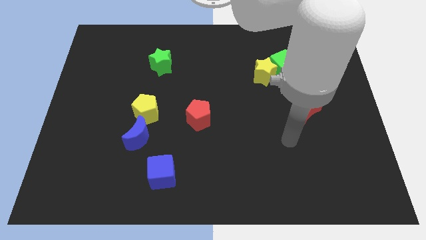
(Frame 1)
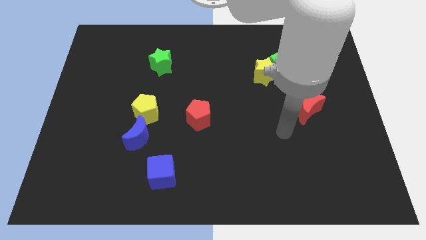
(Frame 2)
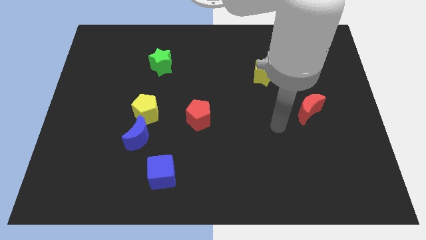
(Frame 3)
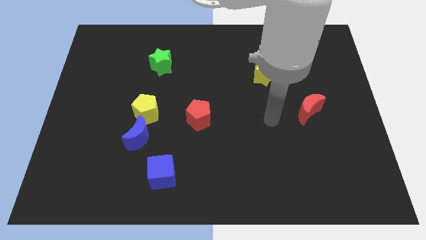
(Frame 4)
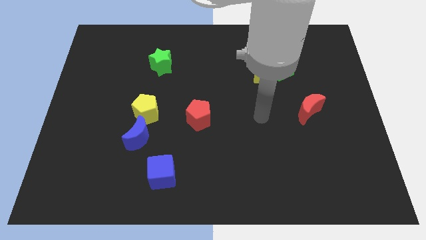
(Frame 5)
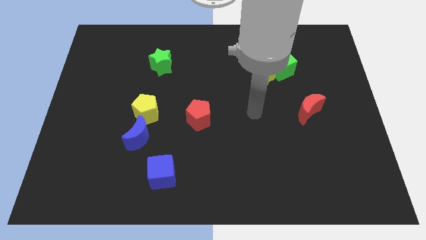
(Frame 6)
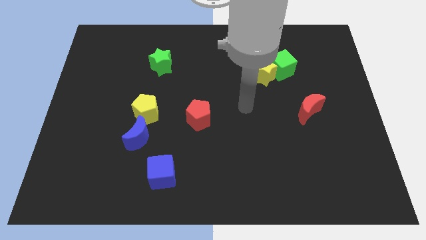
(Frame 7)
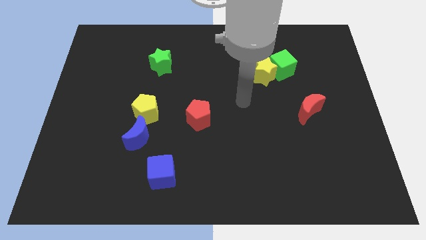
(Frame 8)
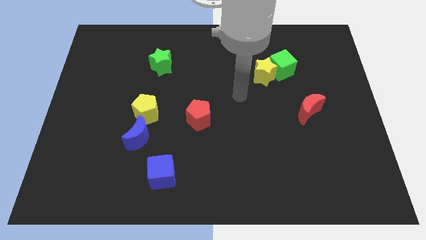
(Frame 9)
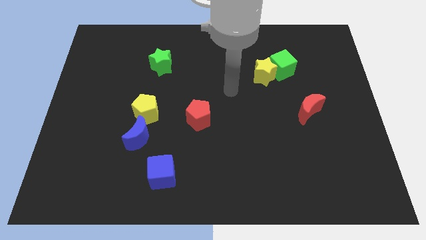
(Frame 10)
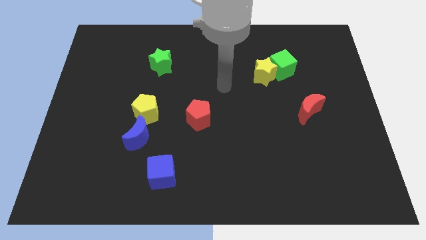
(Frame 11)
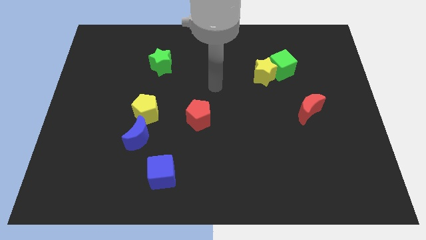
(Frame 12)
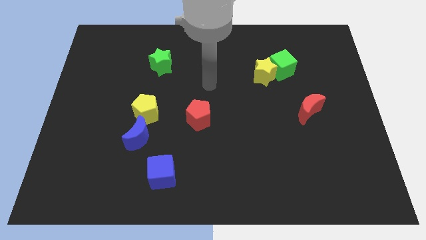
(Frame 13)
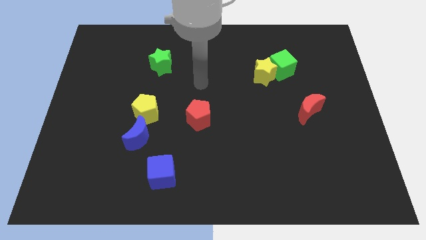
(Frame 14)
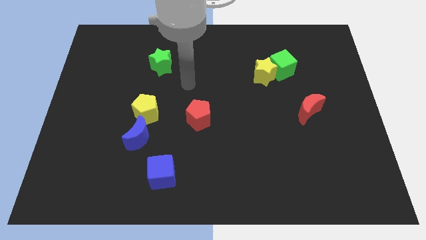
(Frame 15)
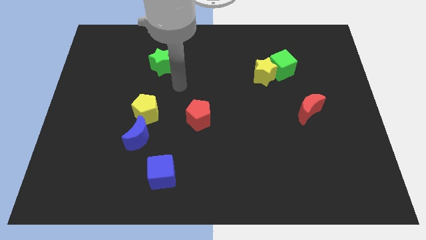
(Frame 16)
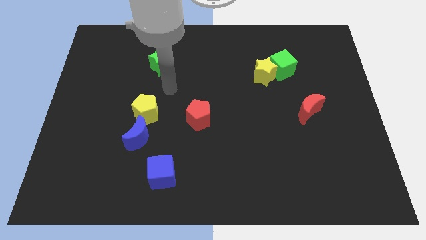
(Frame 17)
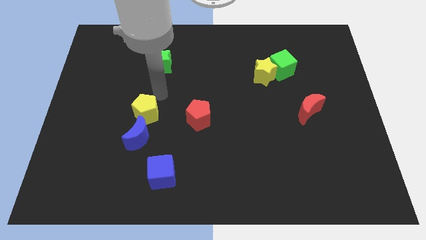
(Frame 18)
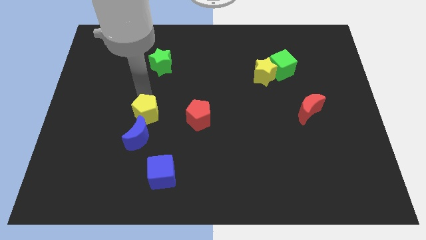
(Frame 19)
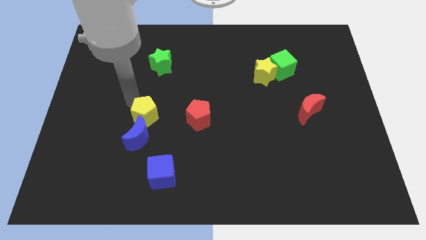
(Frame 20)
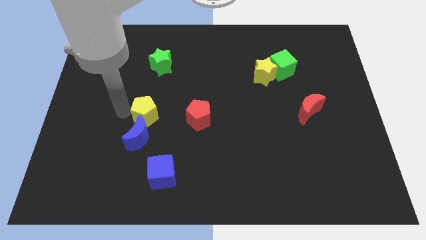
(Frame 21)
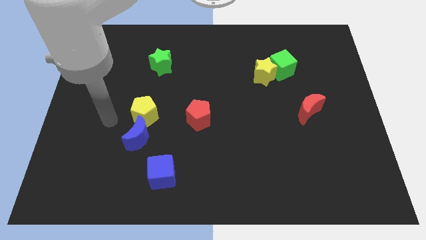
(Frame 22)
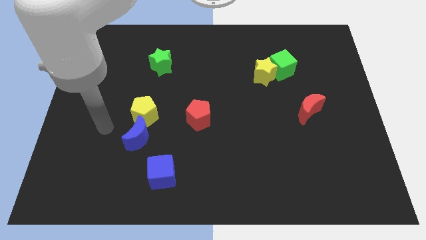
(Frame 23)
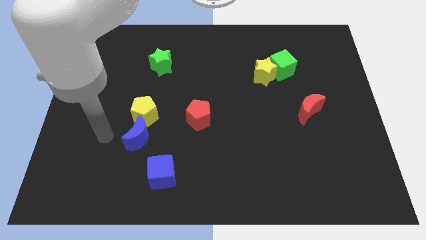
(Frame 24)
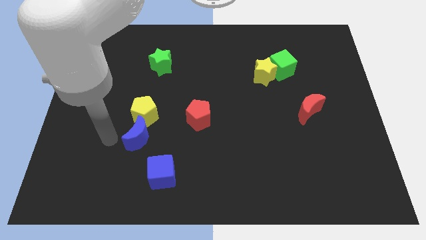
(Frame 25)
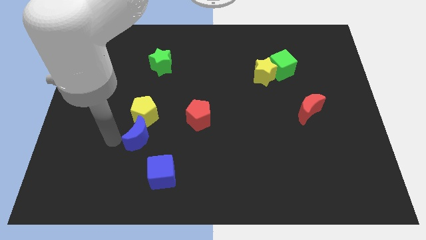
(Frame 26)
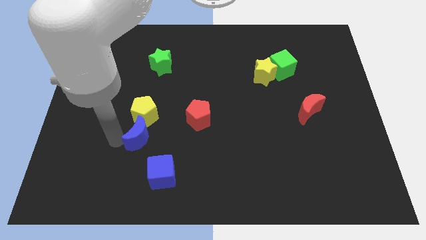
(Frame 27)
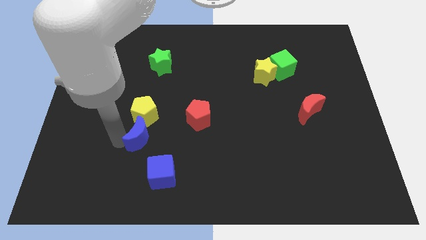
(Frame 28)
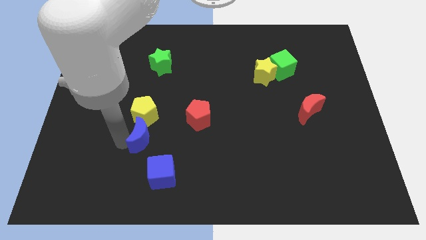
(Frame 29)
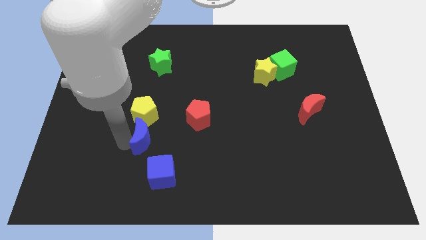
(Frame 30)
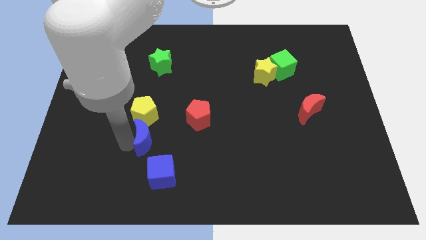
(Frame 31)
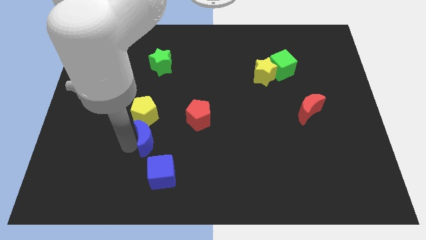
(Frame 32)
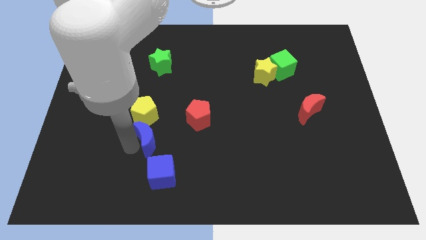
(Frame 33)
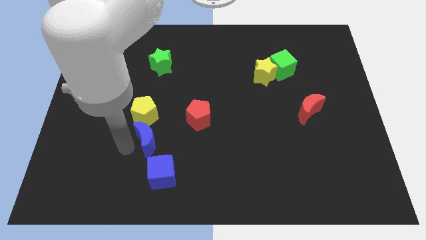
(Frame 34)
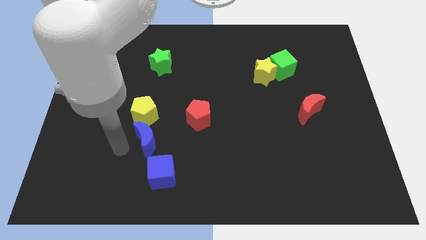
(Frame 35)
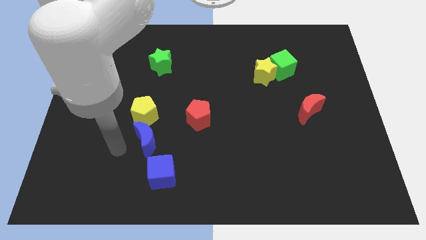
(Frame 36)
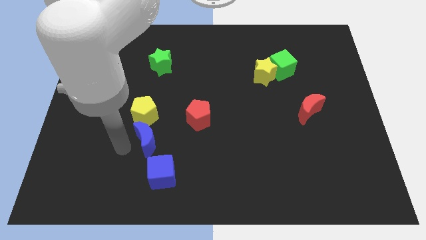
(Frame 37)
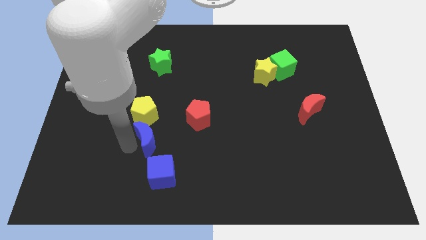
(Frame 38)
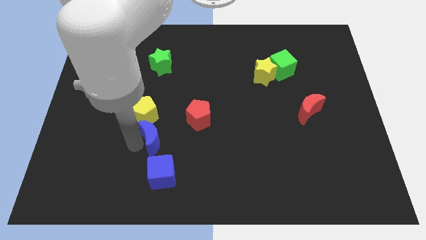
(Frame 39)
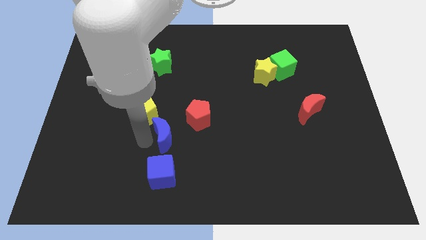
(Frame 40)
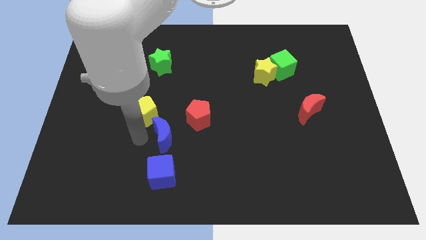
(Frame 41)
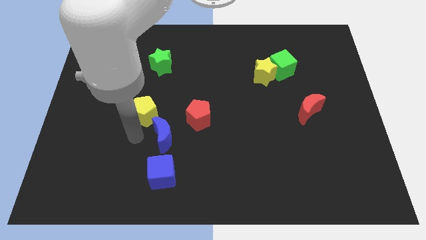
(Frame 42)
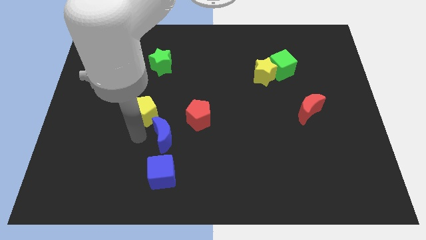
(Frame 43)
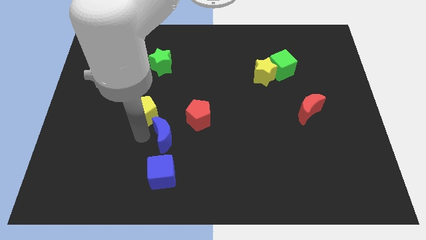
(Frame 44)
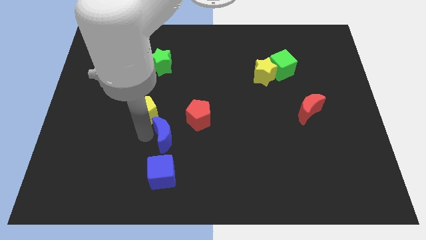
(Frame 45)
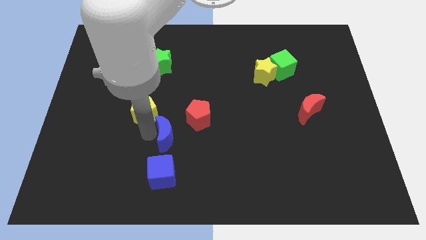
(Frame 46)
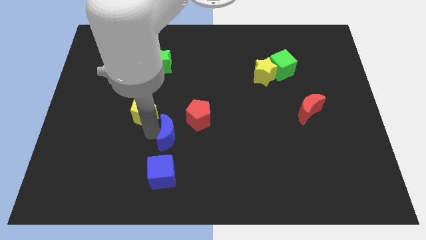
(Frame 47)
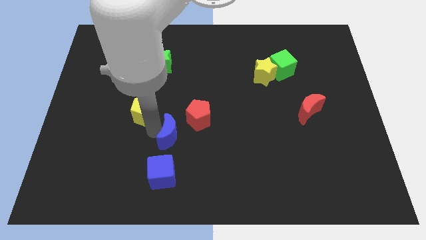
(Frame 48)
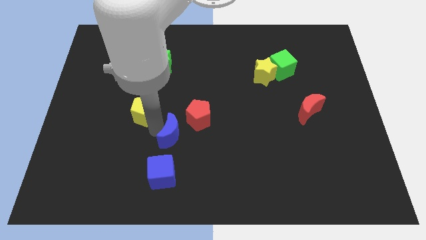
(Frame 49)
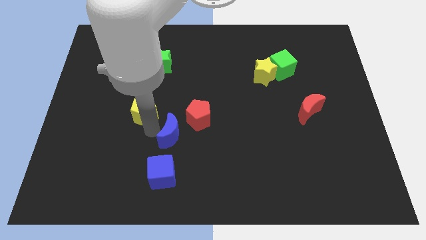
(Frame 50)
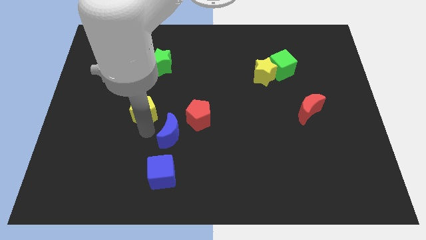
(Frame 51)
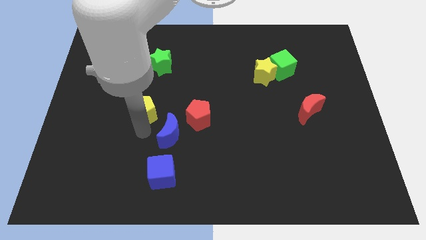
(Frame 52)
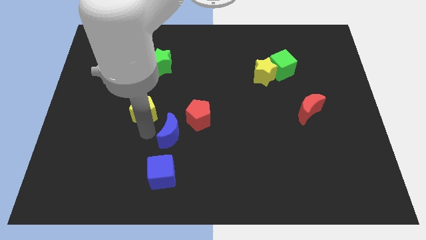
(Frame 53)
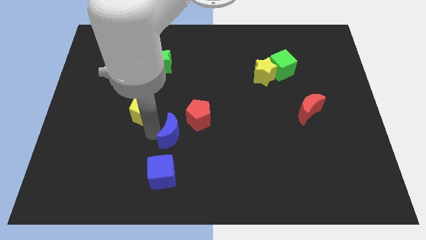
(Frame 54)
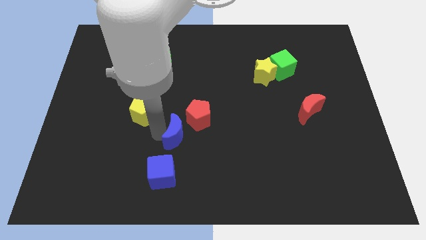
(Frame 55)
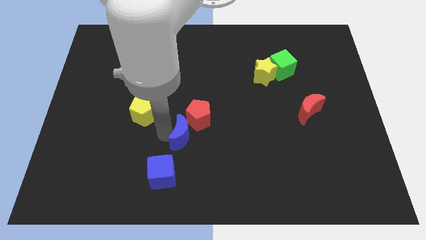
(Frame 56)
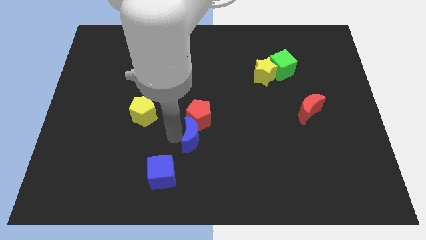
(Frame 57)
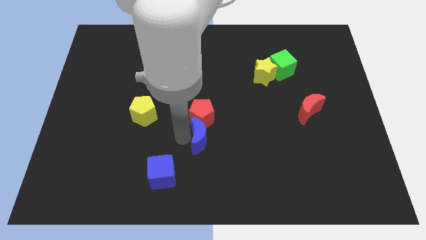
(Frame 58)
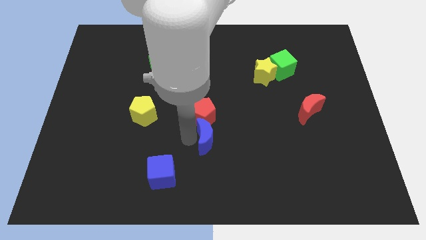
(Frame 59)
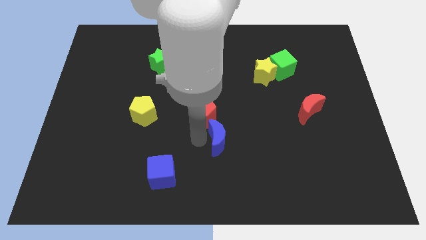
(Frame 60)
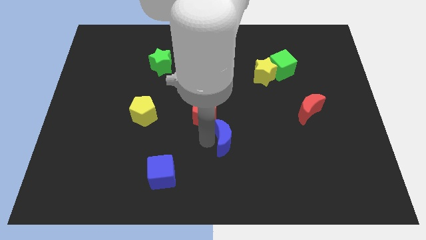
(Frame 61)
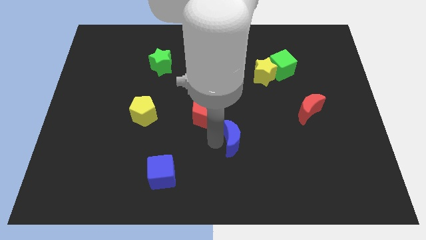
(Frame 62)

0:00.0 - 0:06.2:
slide the blue moon right

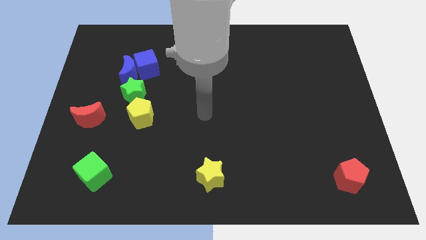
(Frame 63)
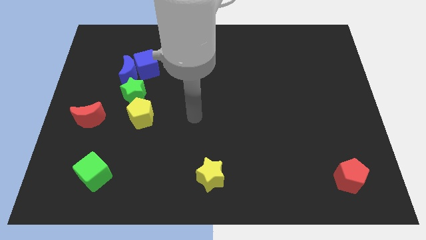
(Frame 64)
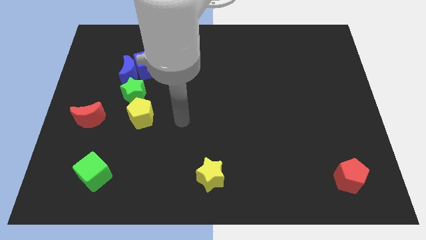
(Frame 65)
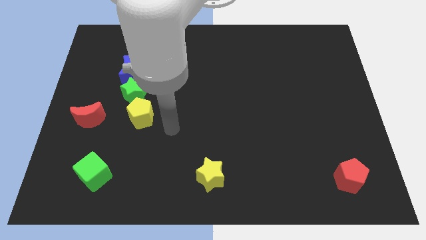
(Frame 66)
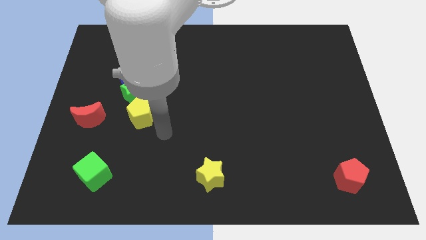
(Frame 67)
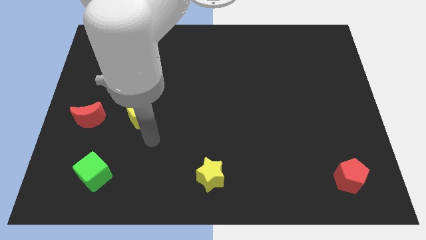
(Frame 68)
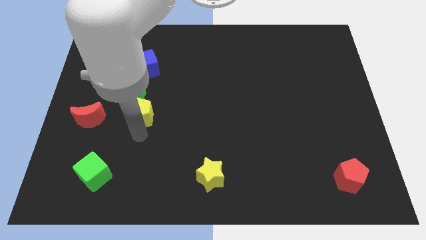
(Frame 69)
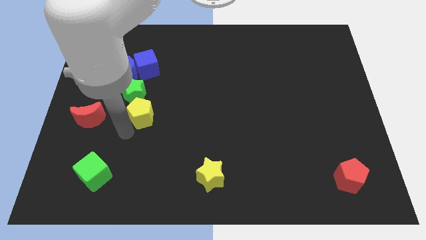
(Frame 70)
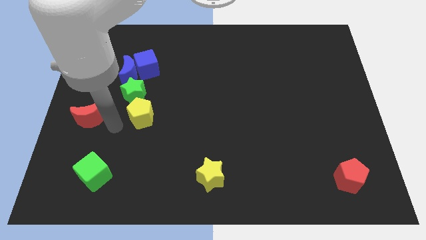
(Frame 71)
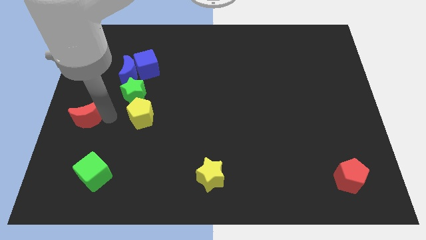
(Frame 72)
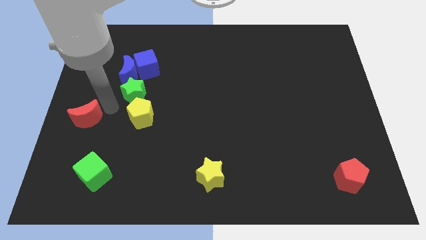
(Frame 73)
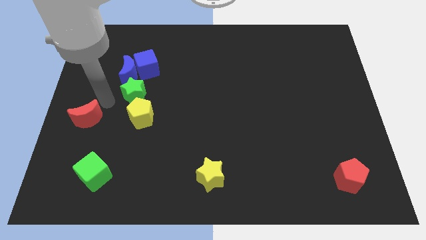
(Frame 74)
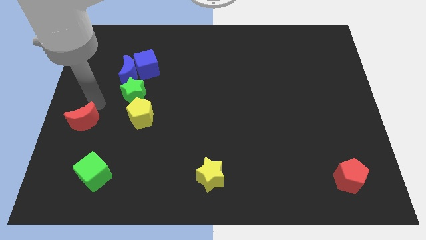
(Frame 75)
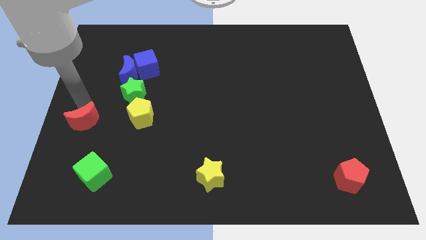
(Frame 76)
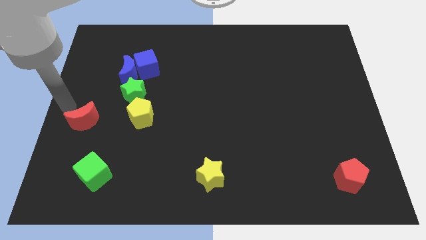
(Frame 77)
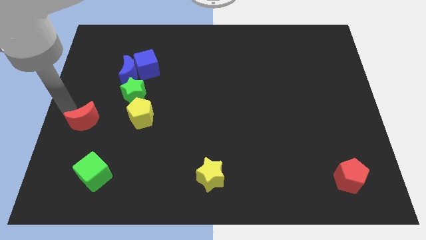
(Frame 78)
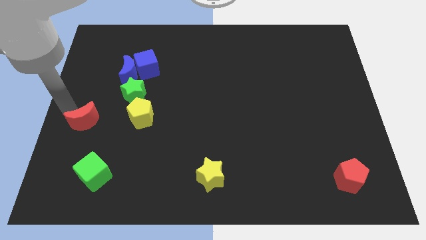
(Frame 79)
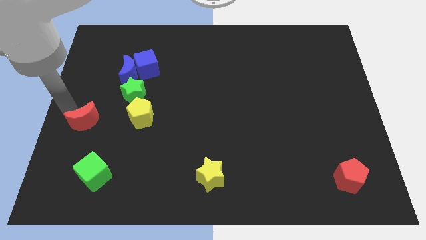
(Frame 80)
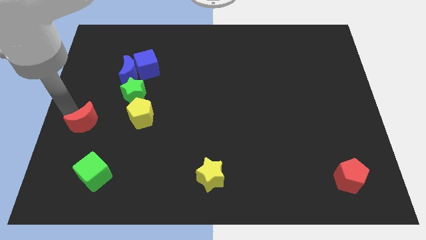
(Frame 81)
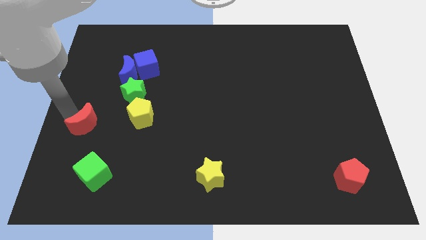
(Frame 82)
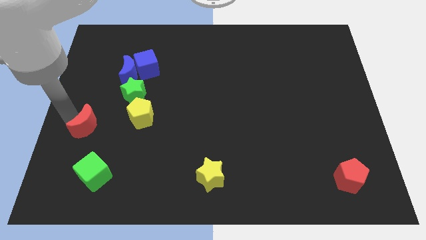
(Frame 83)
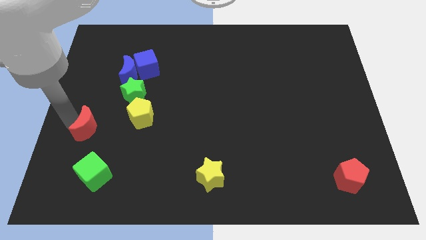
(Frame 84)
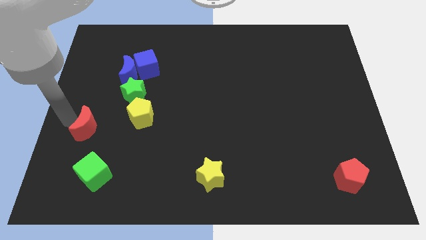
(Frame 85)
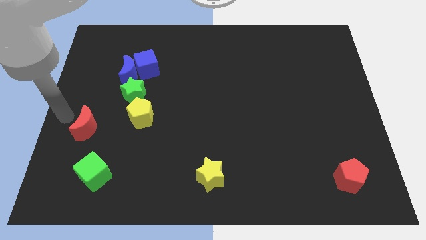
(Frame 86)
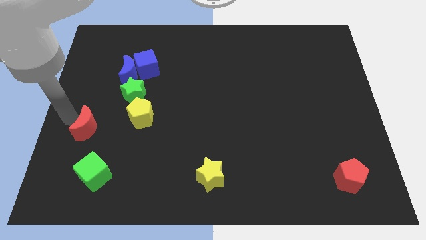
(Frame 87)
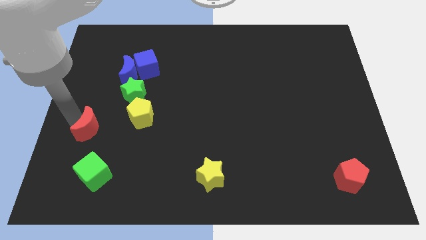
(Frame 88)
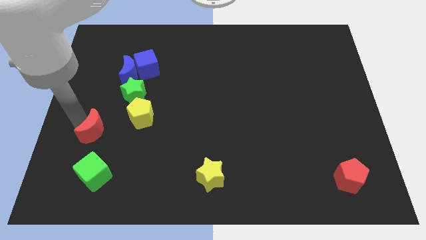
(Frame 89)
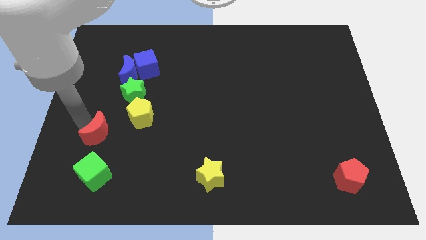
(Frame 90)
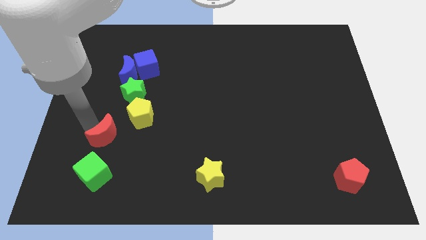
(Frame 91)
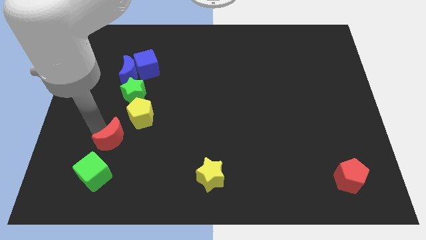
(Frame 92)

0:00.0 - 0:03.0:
move the red moon a little downwards and to the right
